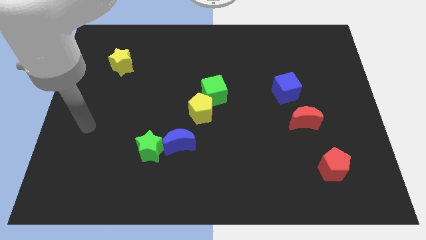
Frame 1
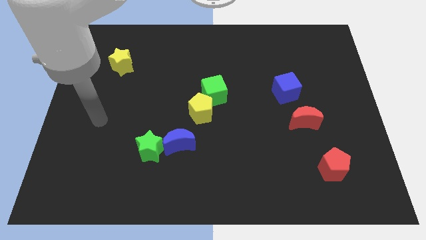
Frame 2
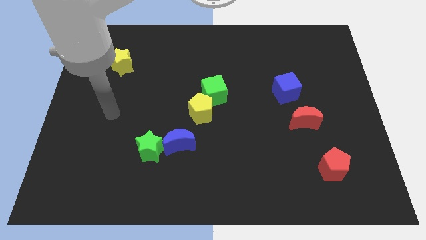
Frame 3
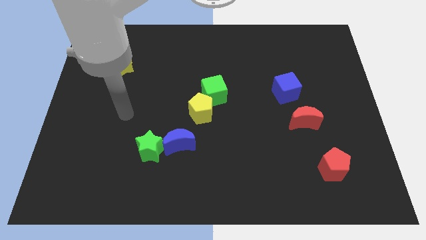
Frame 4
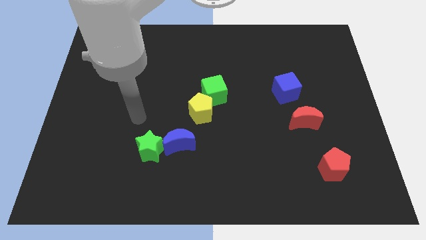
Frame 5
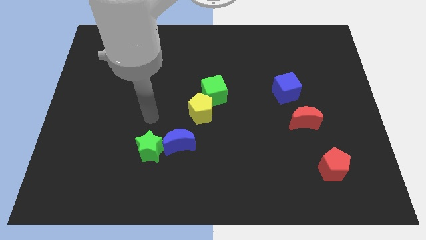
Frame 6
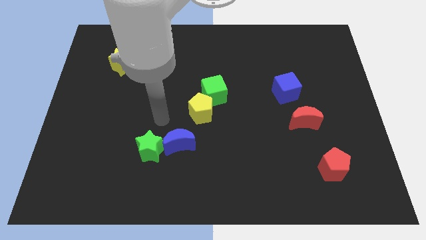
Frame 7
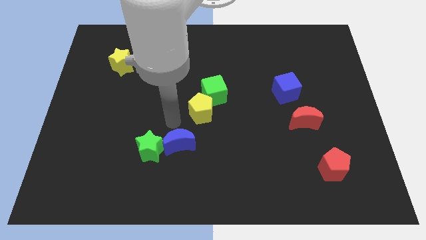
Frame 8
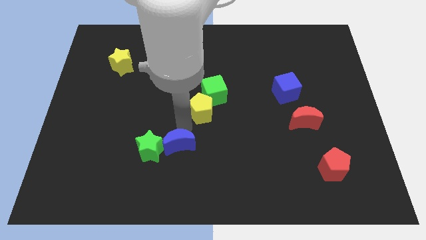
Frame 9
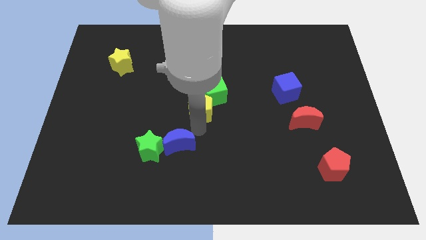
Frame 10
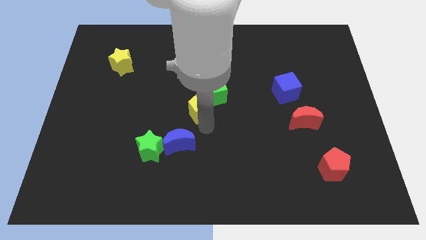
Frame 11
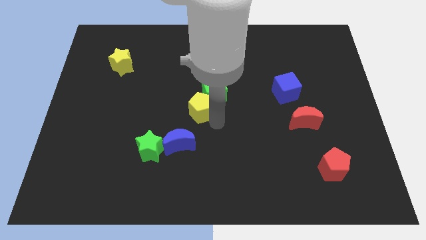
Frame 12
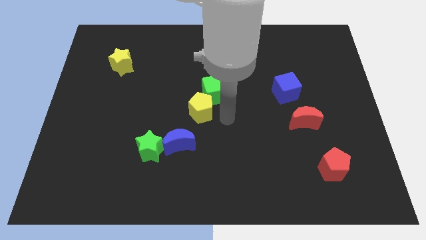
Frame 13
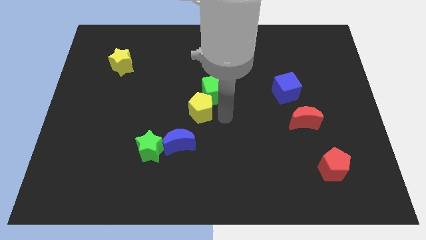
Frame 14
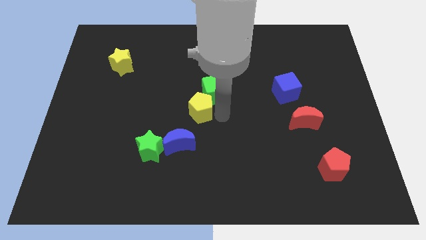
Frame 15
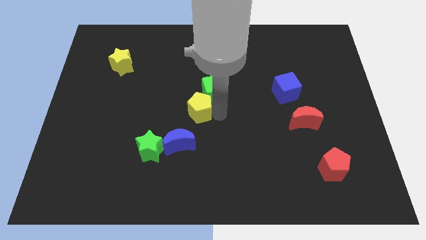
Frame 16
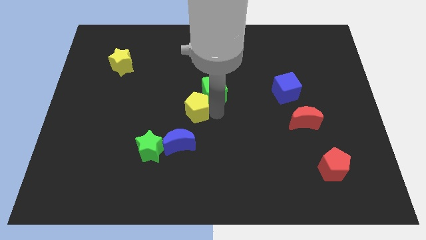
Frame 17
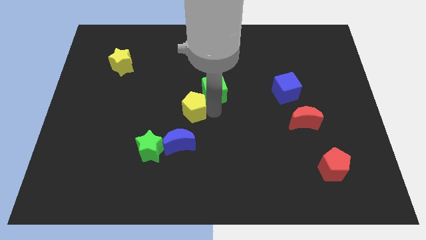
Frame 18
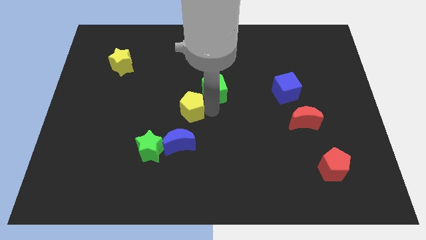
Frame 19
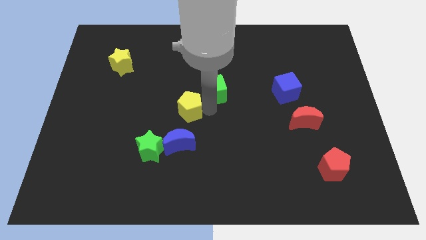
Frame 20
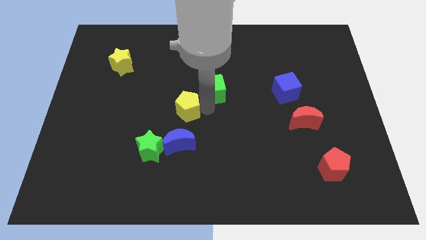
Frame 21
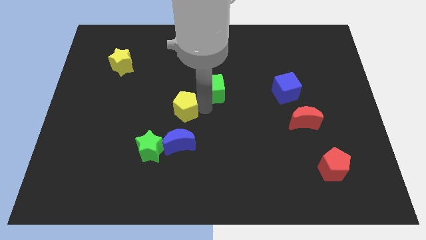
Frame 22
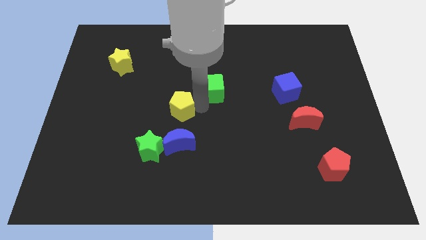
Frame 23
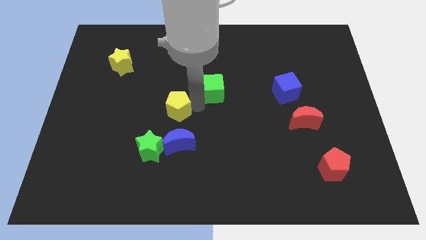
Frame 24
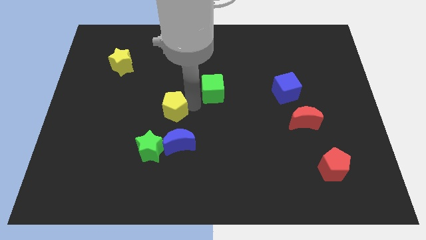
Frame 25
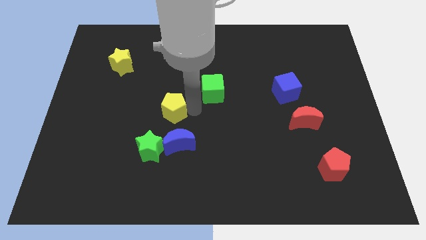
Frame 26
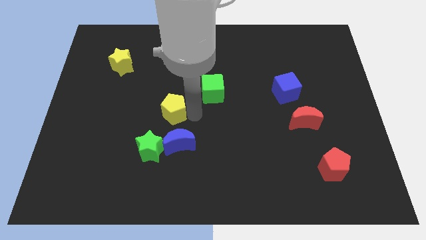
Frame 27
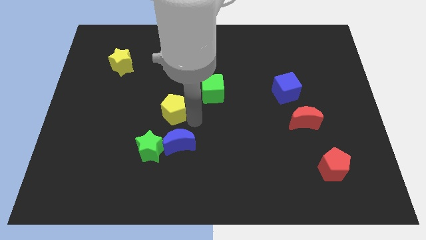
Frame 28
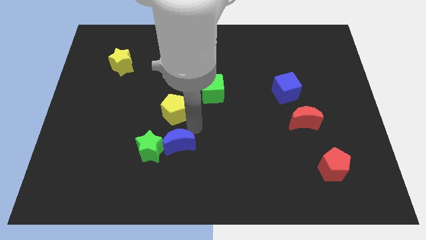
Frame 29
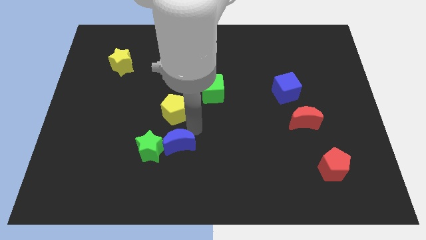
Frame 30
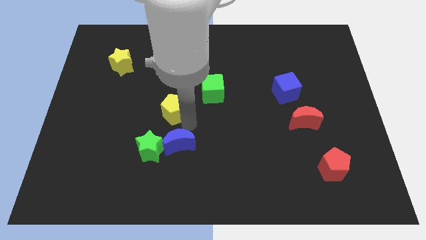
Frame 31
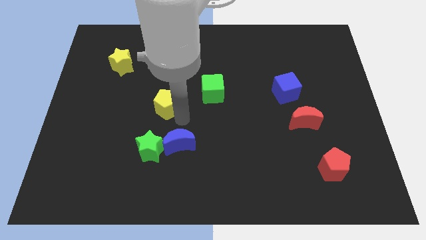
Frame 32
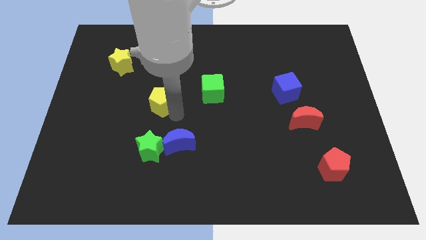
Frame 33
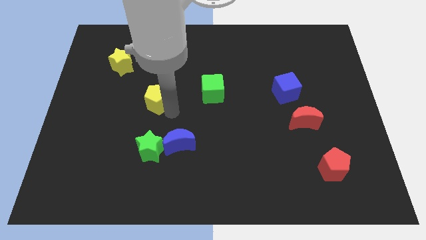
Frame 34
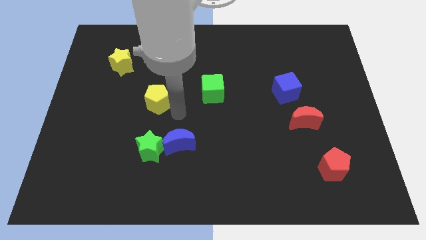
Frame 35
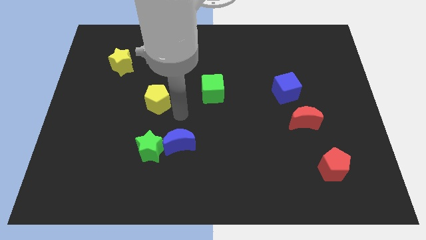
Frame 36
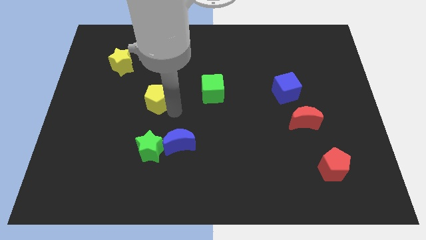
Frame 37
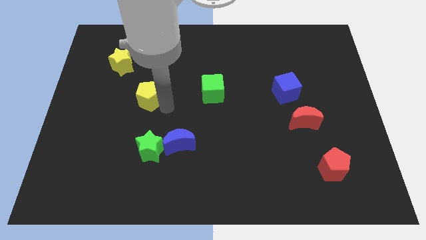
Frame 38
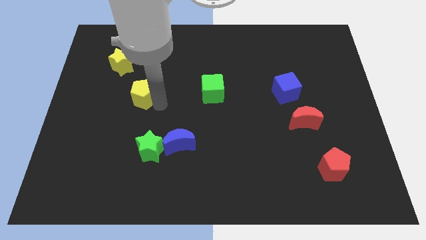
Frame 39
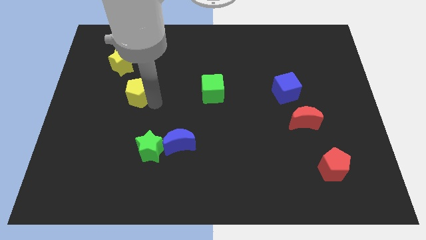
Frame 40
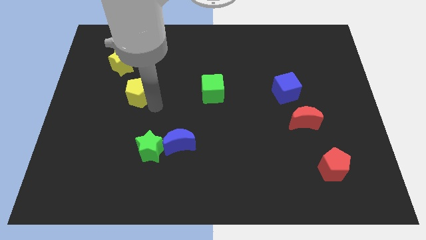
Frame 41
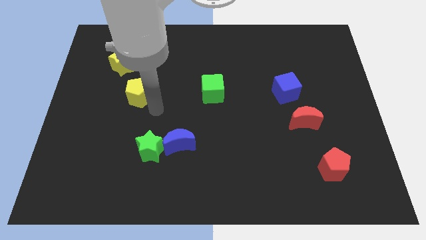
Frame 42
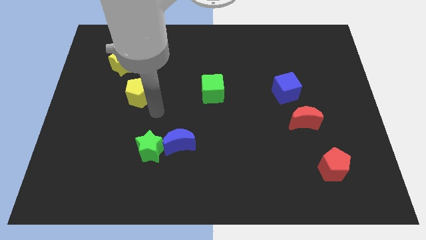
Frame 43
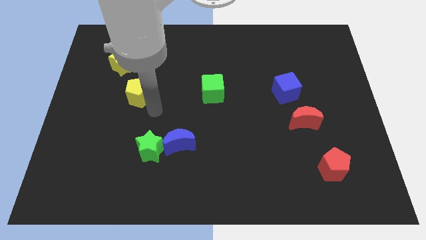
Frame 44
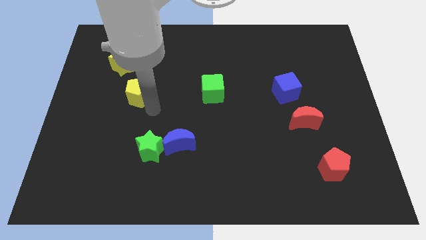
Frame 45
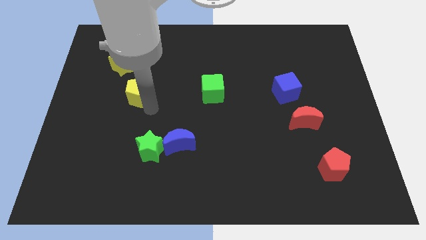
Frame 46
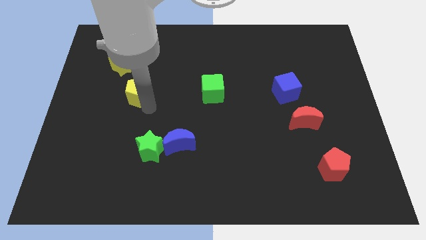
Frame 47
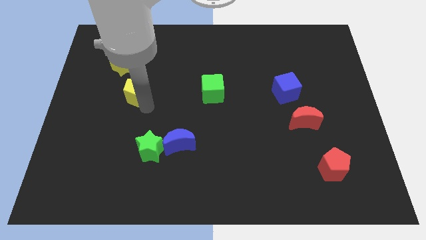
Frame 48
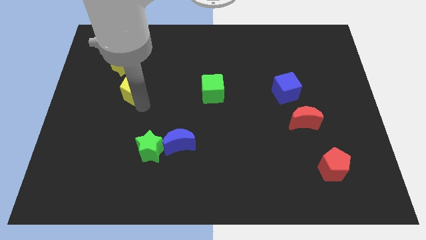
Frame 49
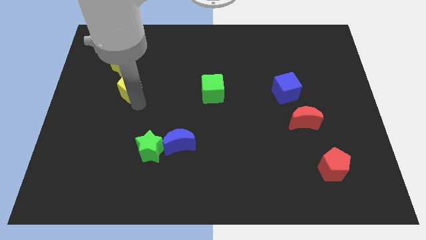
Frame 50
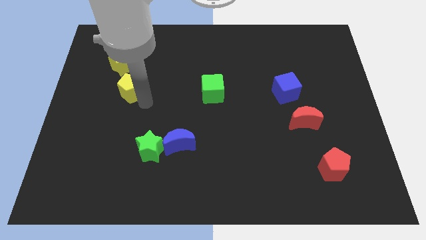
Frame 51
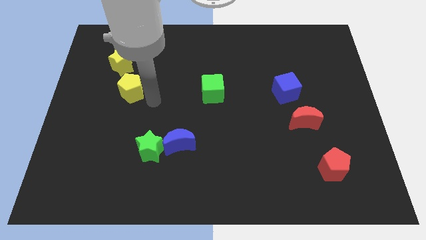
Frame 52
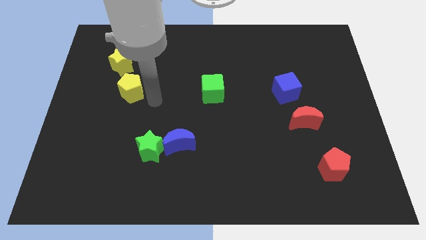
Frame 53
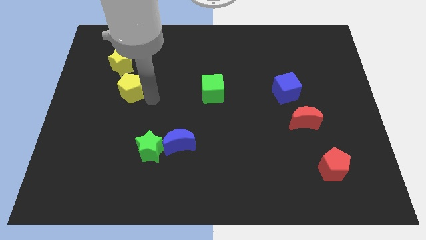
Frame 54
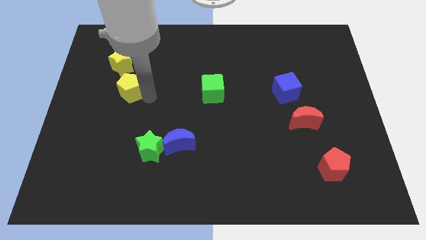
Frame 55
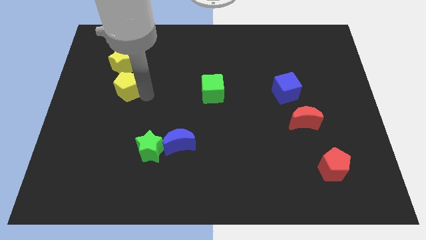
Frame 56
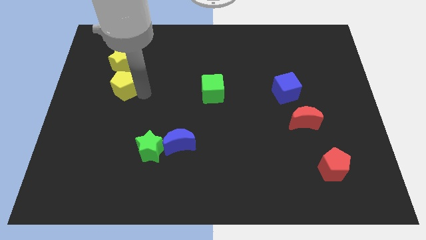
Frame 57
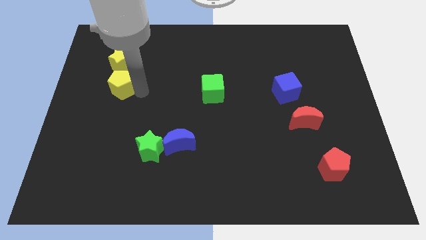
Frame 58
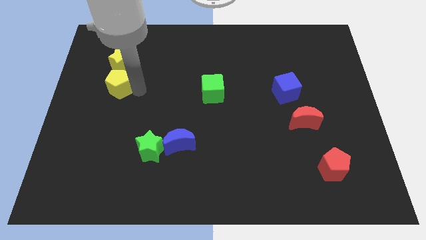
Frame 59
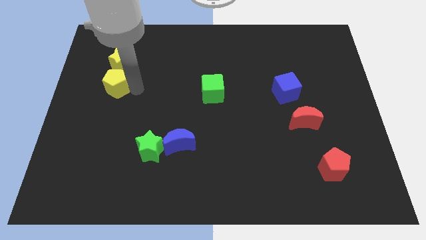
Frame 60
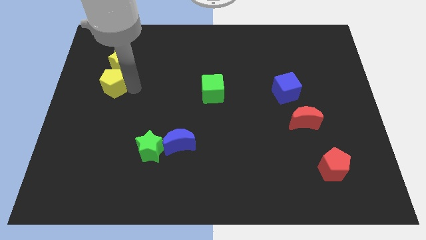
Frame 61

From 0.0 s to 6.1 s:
slide the yellow pentagon to the bottom left side of the yellow star

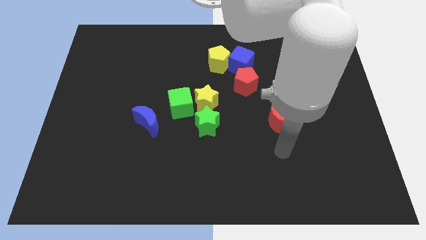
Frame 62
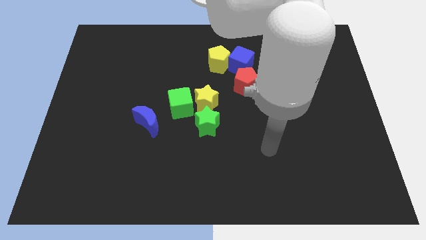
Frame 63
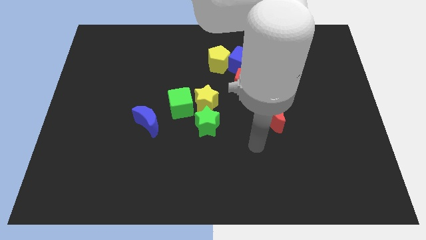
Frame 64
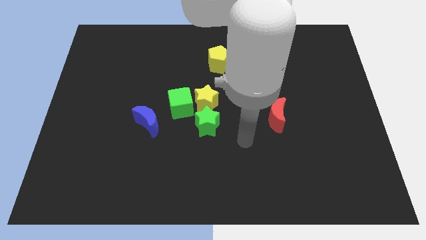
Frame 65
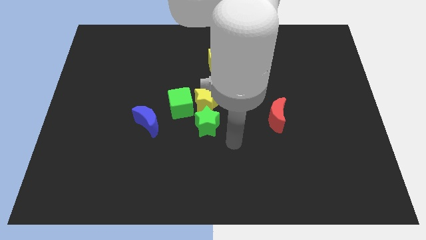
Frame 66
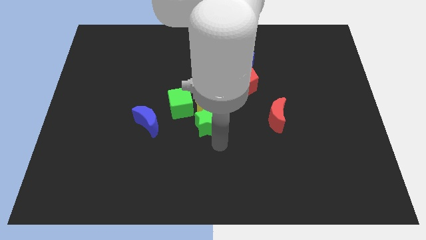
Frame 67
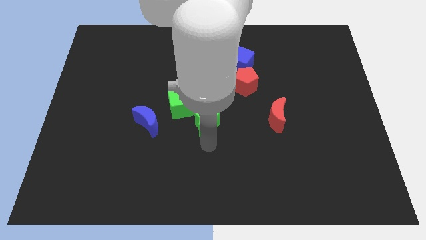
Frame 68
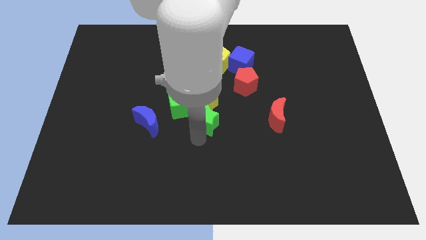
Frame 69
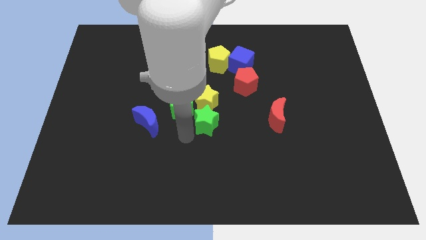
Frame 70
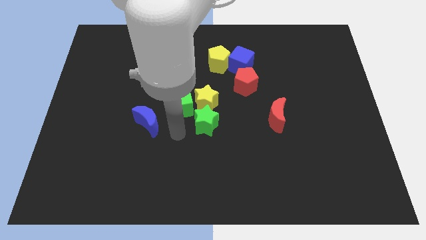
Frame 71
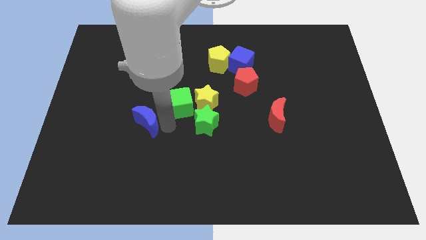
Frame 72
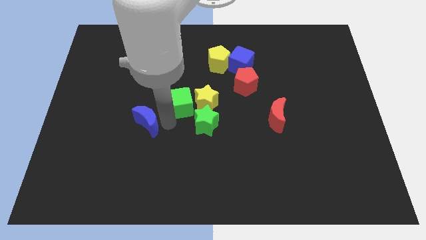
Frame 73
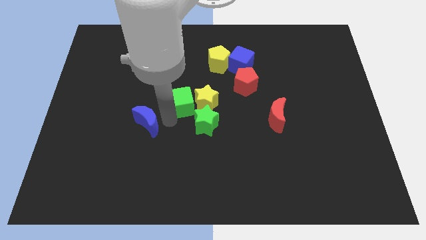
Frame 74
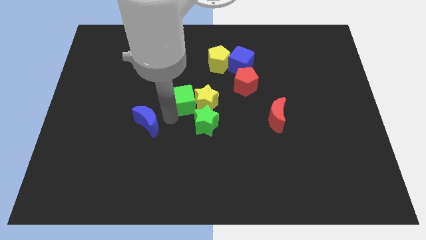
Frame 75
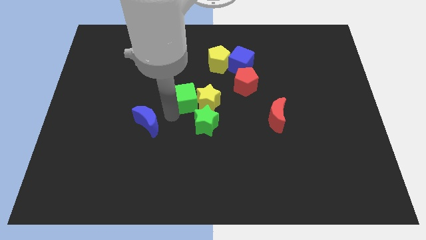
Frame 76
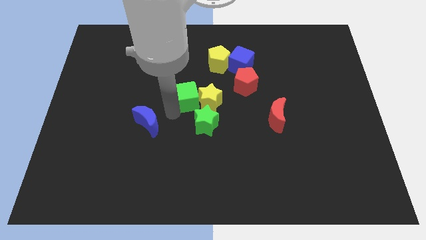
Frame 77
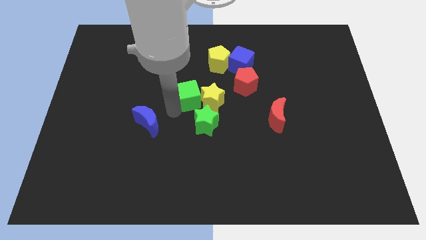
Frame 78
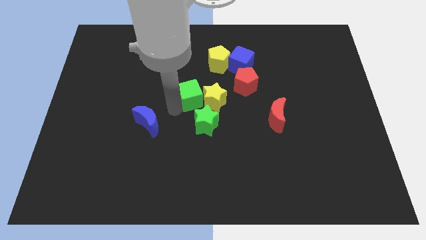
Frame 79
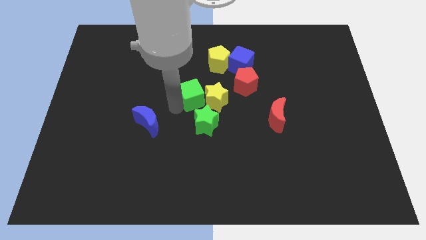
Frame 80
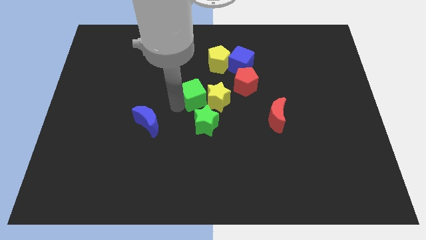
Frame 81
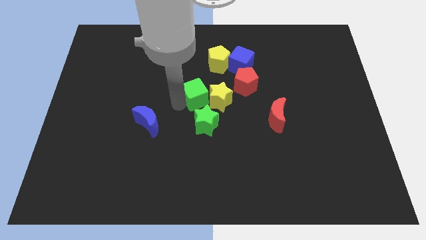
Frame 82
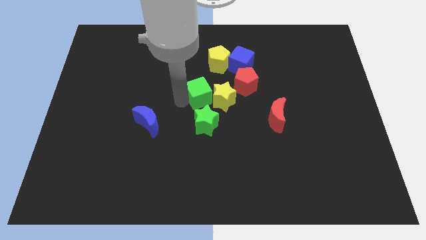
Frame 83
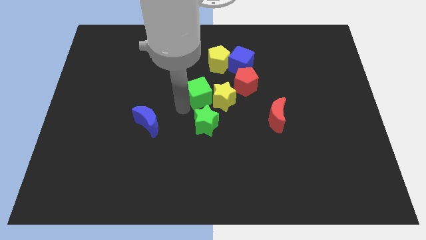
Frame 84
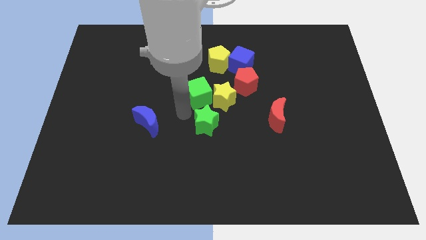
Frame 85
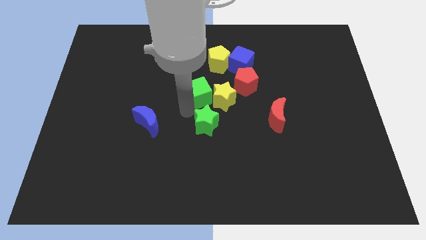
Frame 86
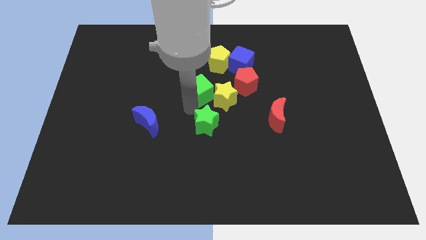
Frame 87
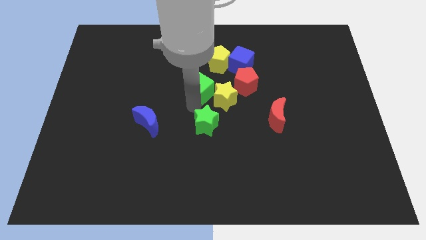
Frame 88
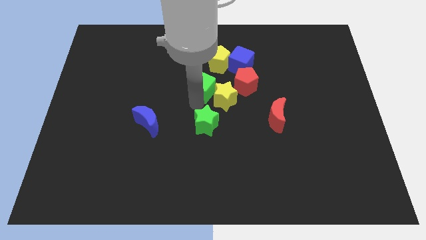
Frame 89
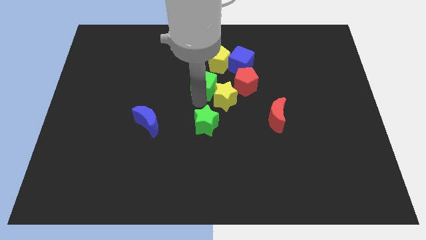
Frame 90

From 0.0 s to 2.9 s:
push the green cube above the yellow star
